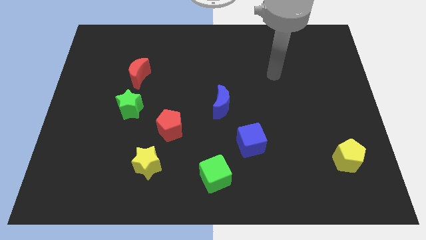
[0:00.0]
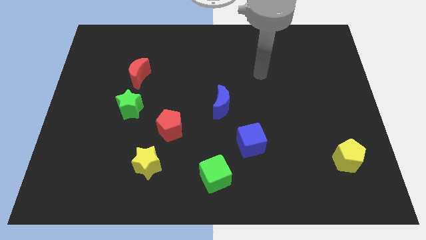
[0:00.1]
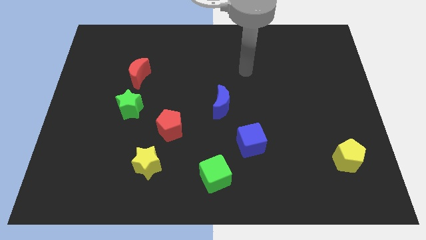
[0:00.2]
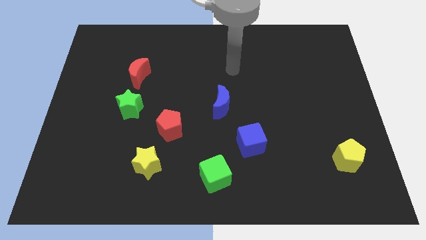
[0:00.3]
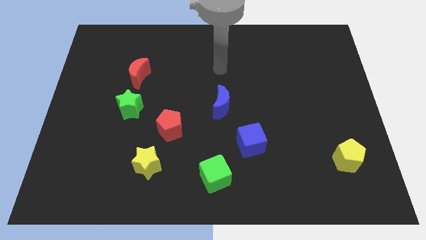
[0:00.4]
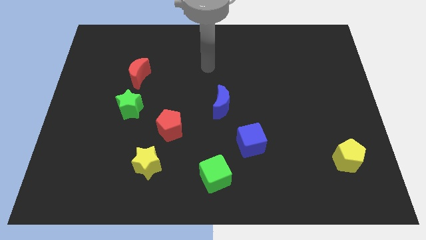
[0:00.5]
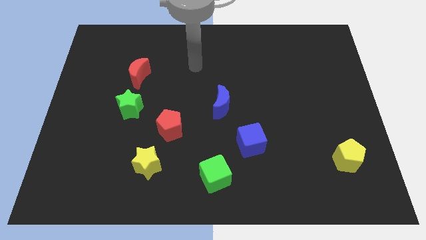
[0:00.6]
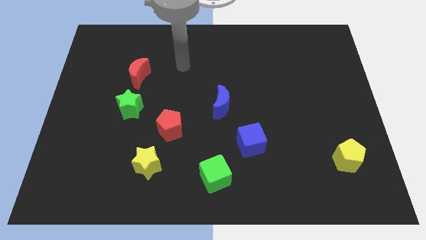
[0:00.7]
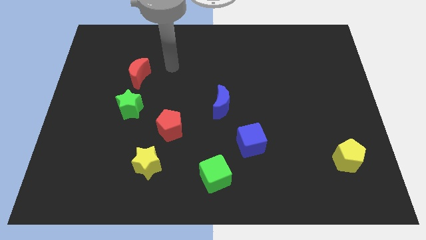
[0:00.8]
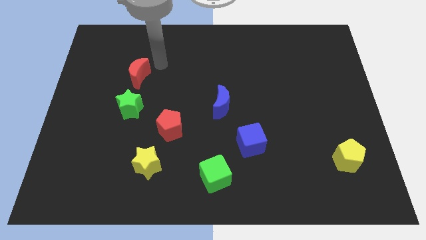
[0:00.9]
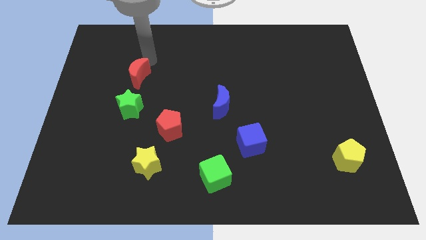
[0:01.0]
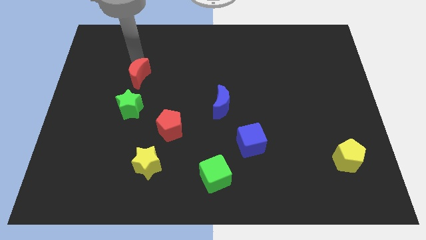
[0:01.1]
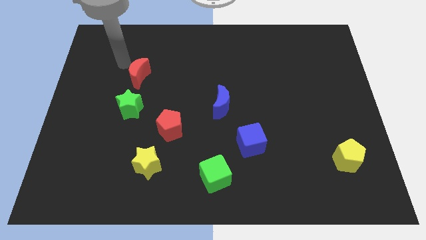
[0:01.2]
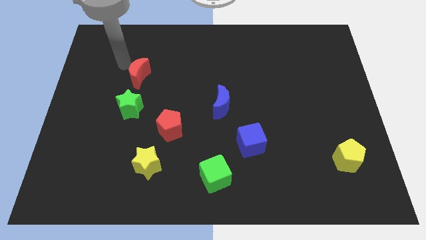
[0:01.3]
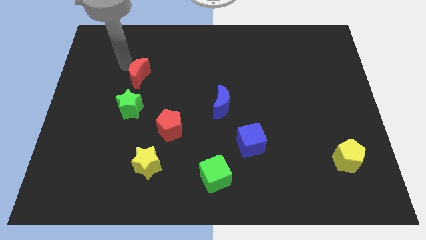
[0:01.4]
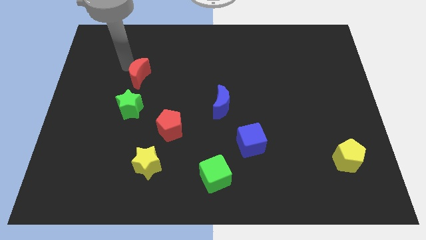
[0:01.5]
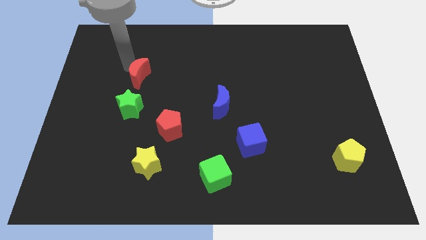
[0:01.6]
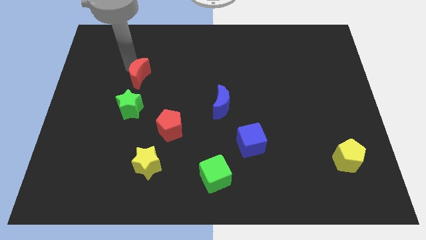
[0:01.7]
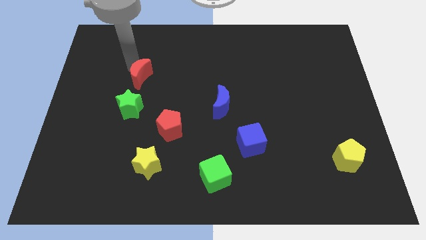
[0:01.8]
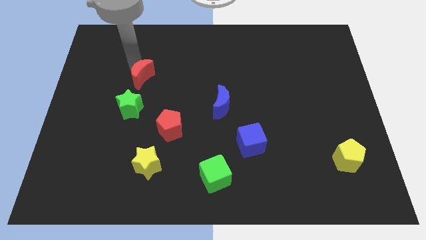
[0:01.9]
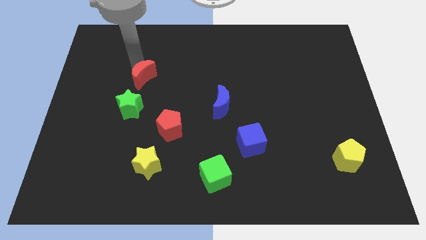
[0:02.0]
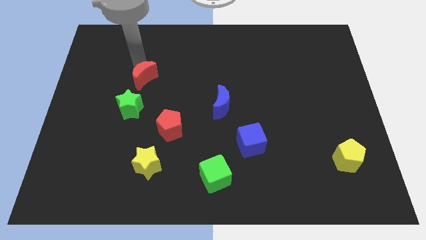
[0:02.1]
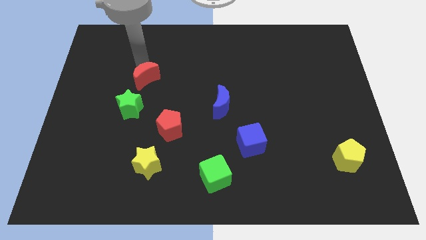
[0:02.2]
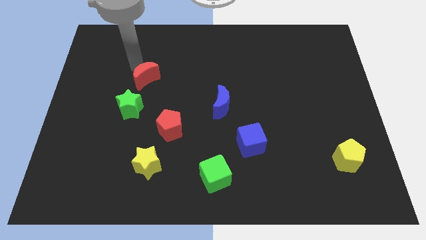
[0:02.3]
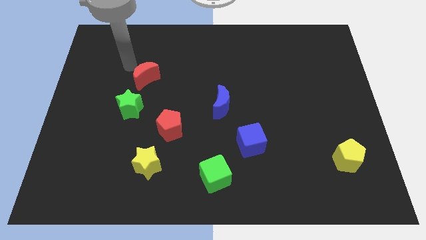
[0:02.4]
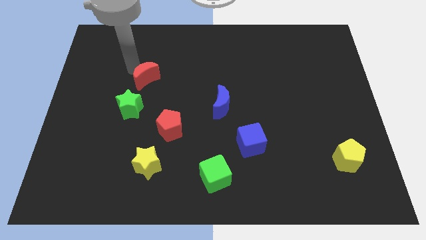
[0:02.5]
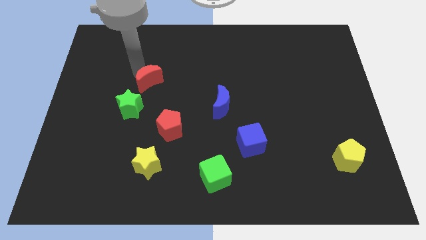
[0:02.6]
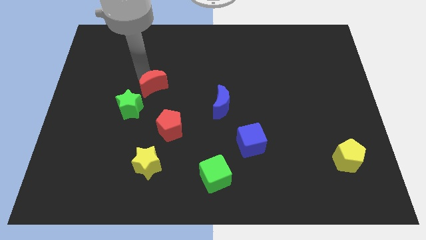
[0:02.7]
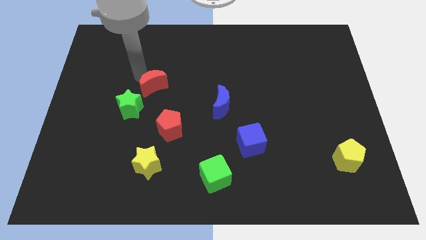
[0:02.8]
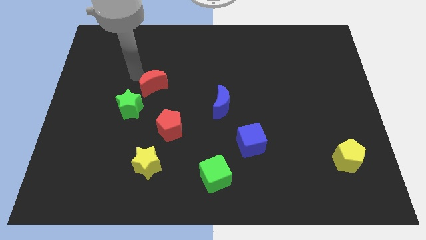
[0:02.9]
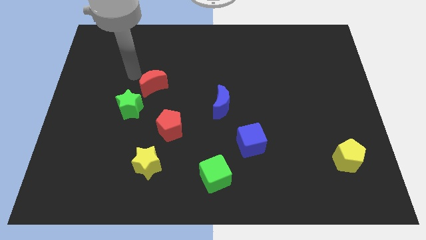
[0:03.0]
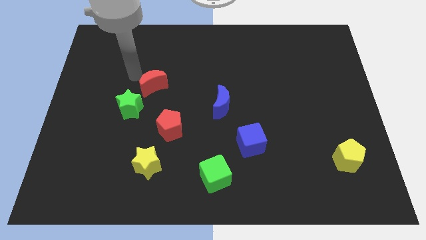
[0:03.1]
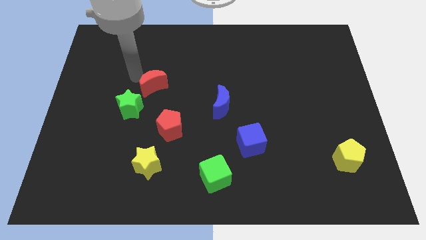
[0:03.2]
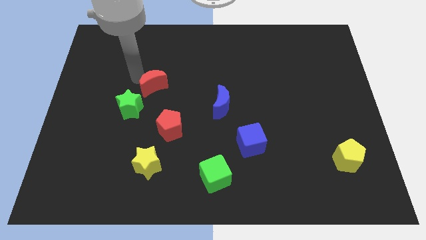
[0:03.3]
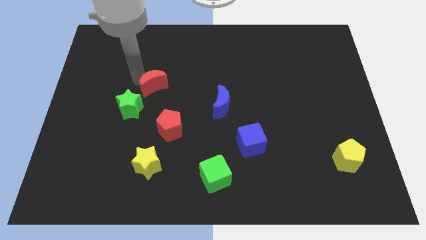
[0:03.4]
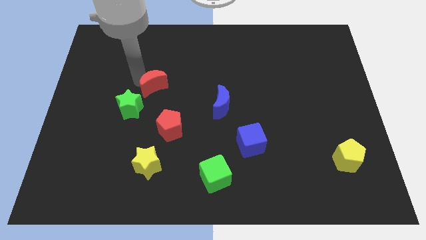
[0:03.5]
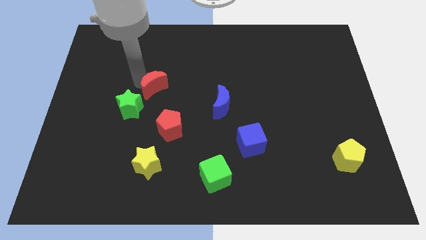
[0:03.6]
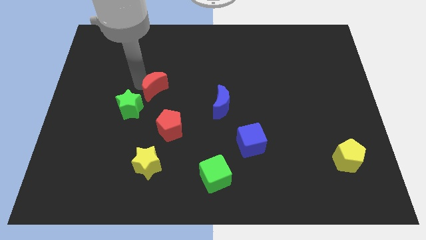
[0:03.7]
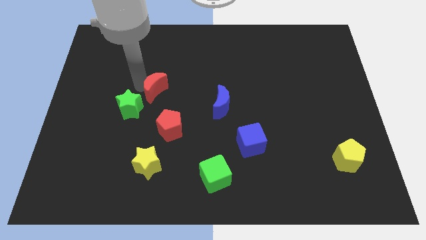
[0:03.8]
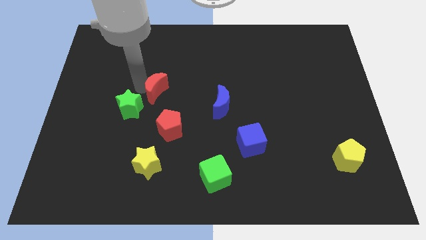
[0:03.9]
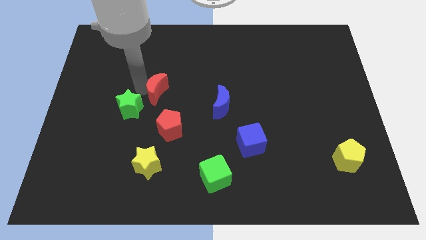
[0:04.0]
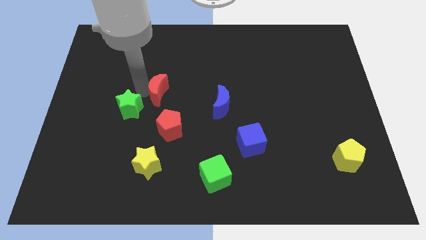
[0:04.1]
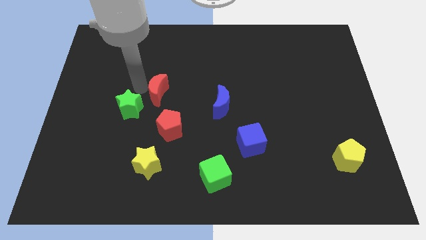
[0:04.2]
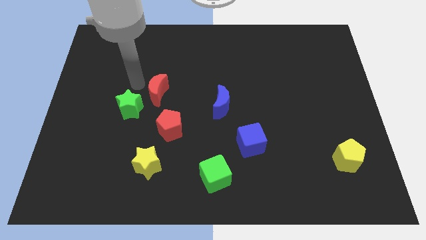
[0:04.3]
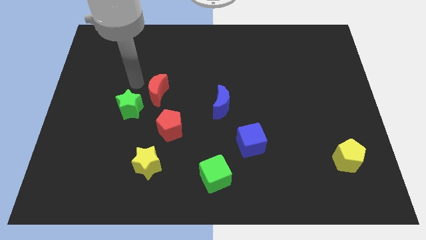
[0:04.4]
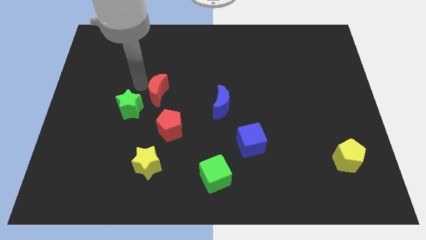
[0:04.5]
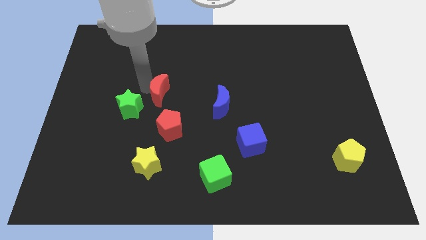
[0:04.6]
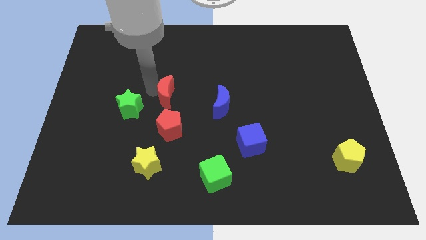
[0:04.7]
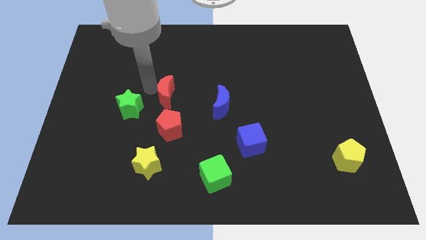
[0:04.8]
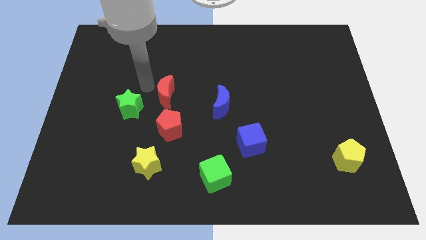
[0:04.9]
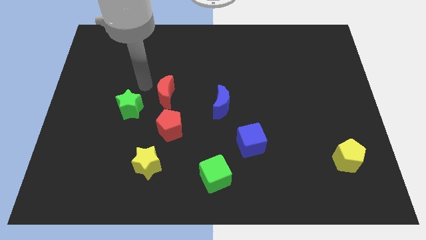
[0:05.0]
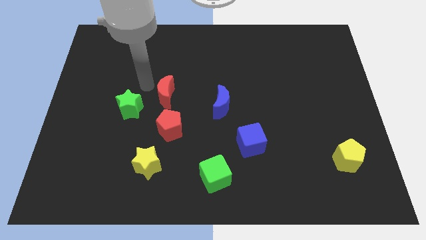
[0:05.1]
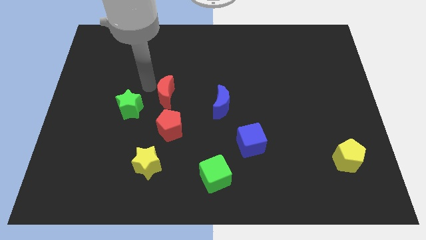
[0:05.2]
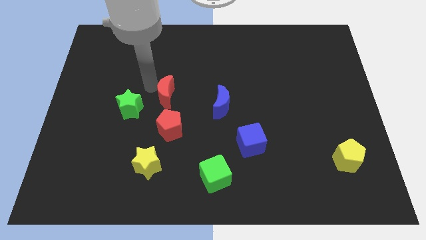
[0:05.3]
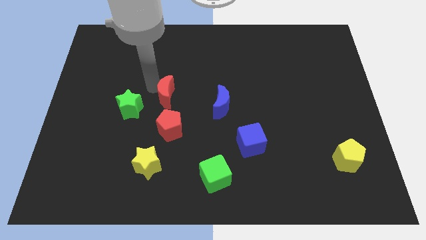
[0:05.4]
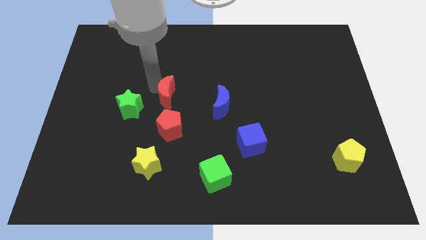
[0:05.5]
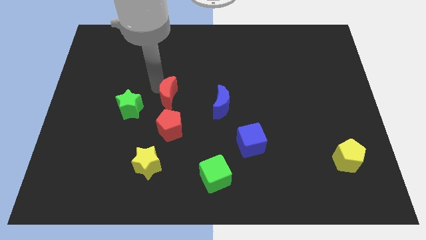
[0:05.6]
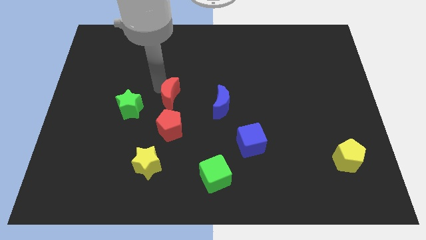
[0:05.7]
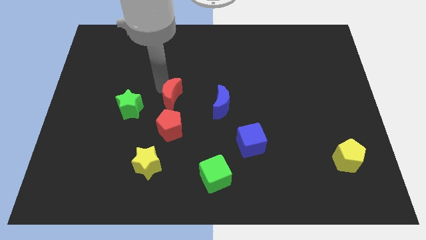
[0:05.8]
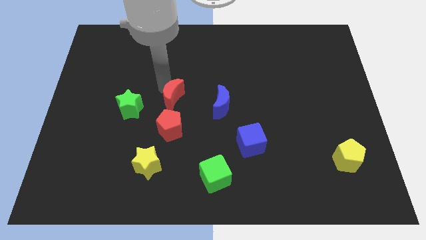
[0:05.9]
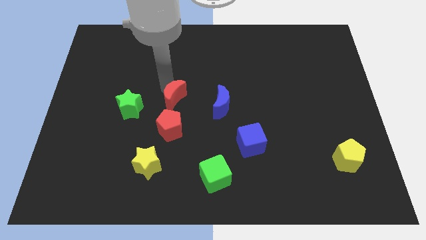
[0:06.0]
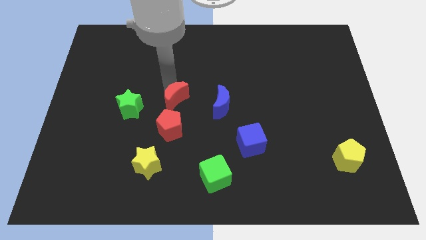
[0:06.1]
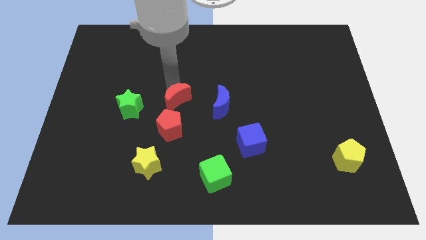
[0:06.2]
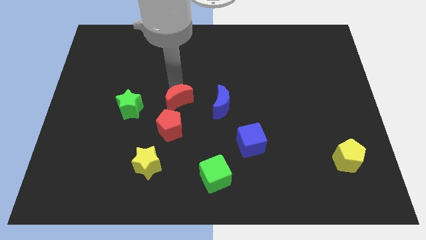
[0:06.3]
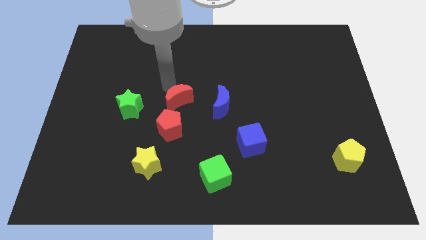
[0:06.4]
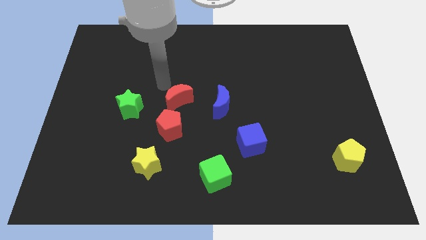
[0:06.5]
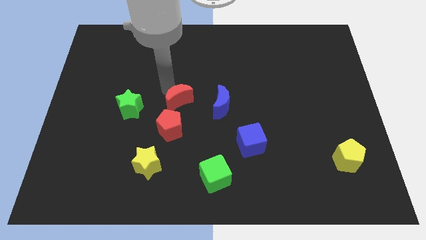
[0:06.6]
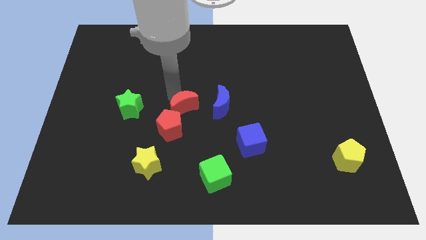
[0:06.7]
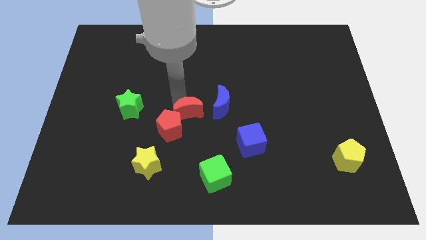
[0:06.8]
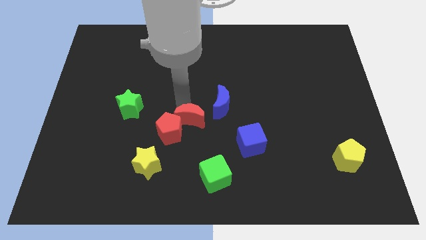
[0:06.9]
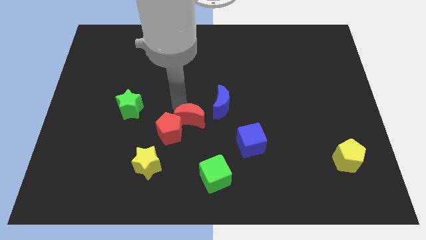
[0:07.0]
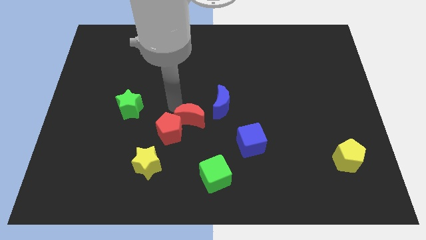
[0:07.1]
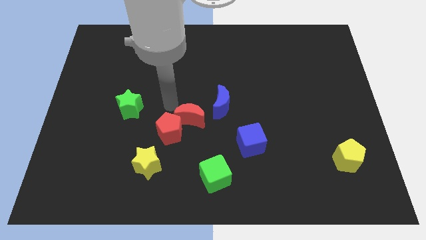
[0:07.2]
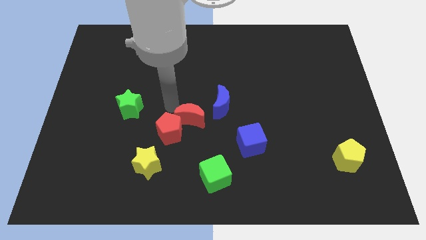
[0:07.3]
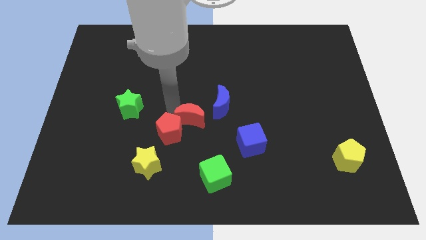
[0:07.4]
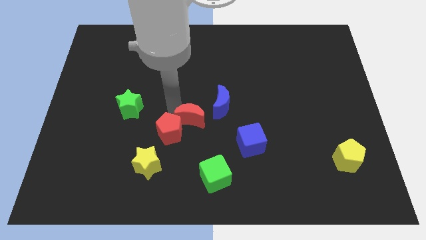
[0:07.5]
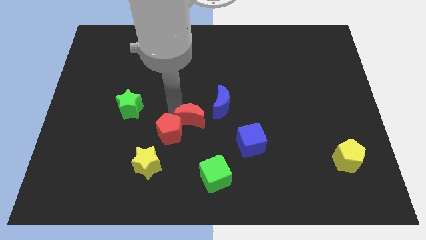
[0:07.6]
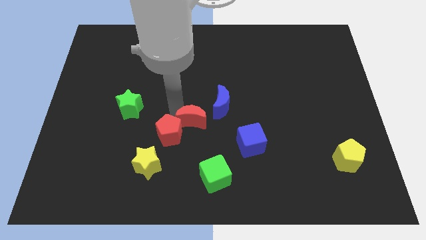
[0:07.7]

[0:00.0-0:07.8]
move the red moon diagonally down and to the right

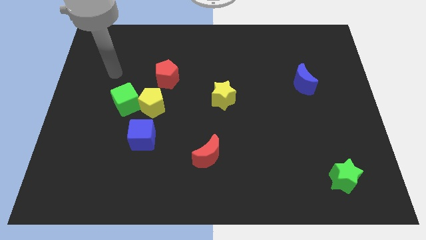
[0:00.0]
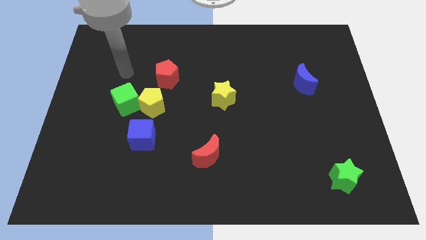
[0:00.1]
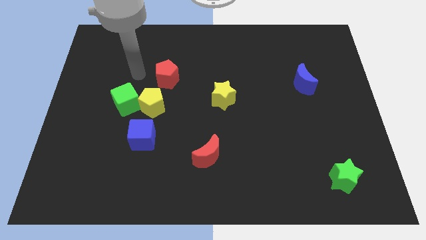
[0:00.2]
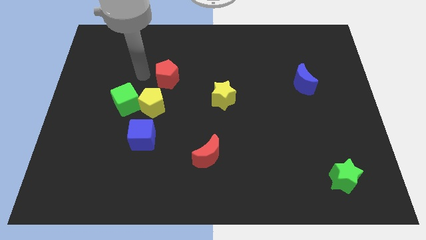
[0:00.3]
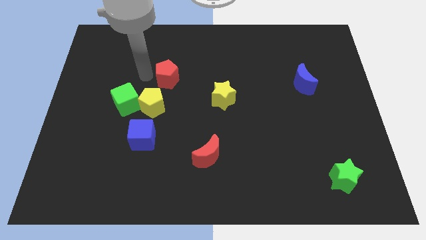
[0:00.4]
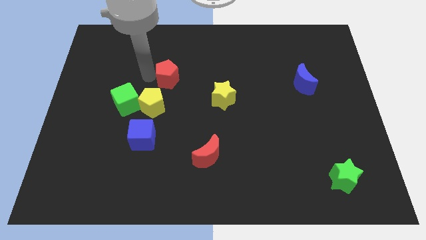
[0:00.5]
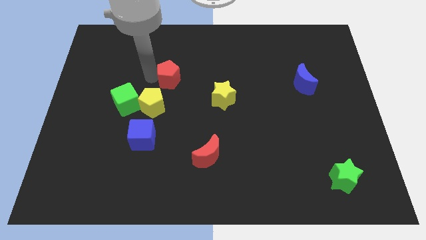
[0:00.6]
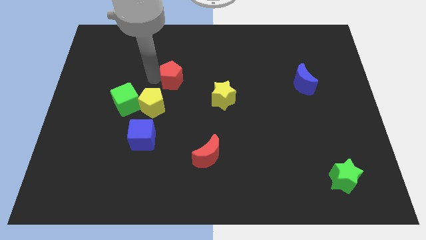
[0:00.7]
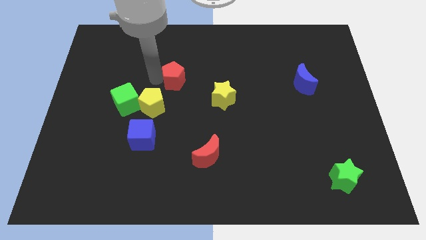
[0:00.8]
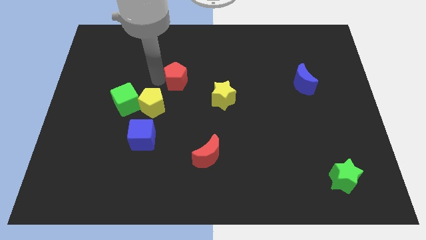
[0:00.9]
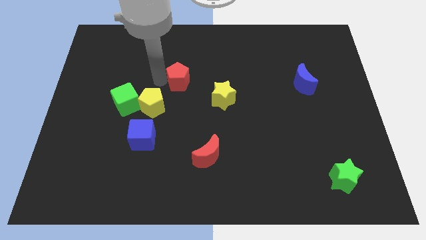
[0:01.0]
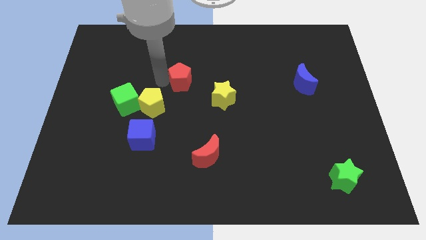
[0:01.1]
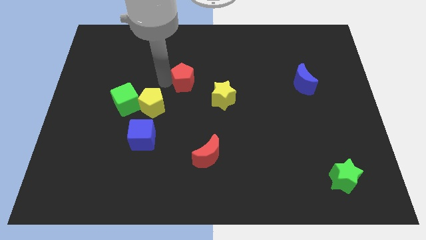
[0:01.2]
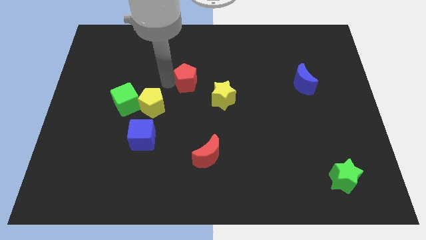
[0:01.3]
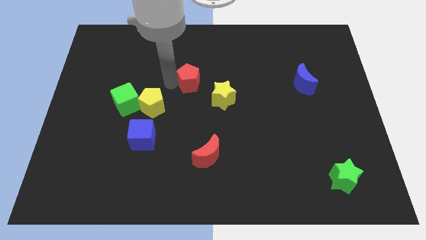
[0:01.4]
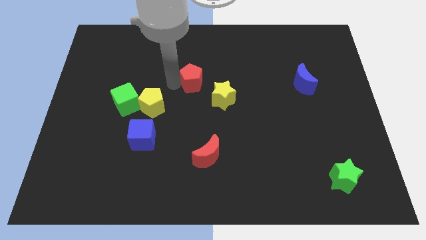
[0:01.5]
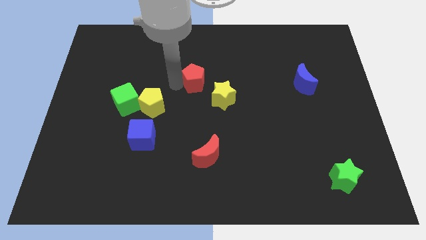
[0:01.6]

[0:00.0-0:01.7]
slightly slide the red pentagon right
